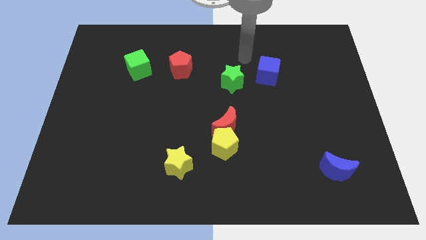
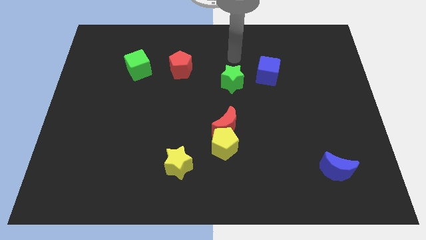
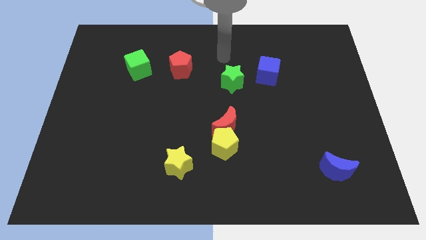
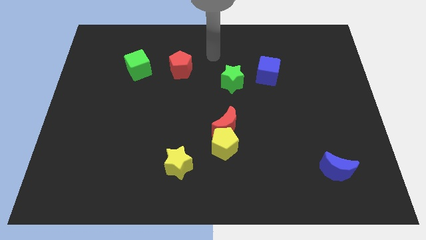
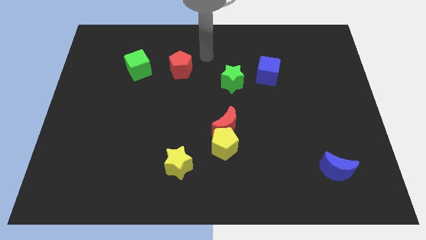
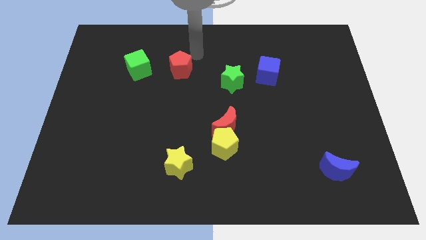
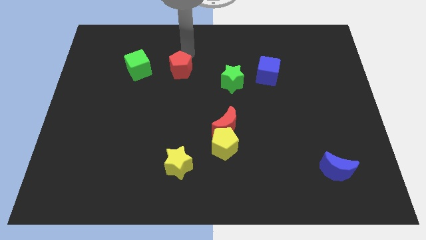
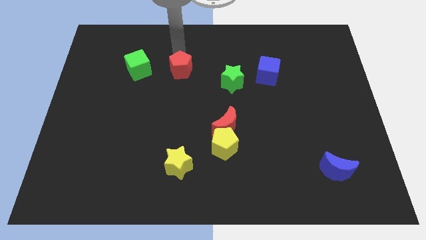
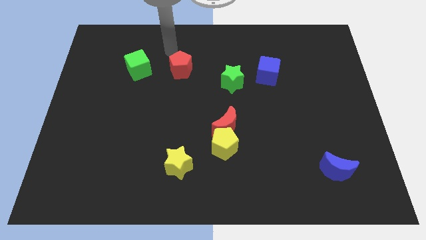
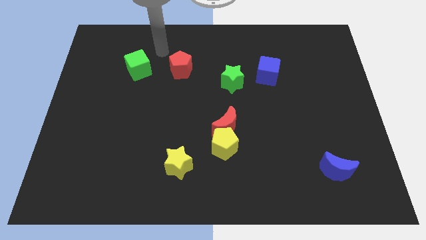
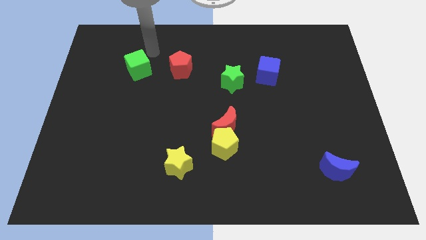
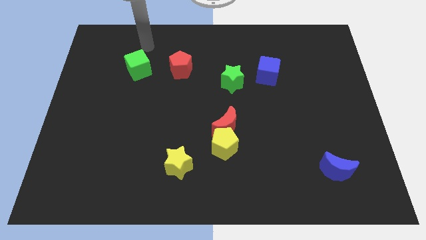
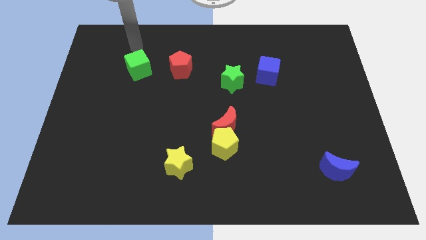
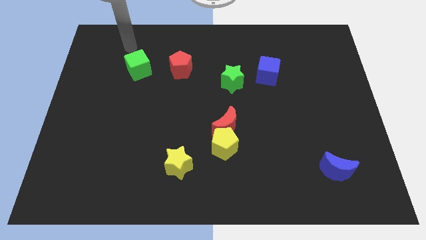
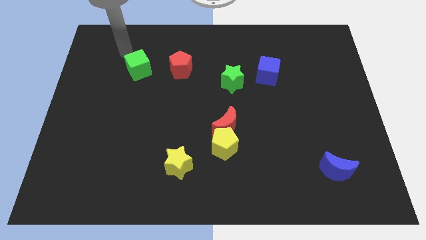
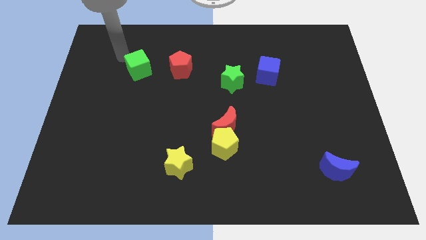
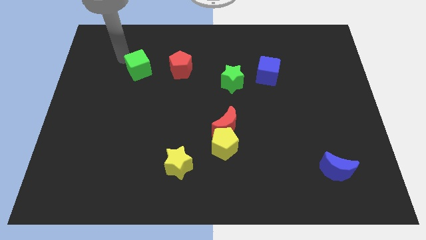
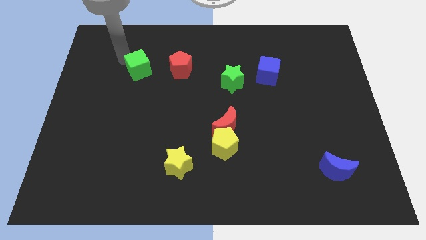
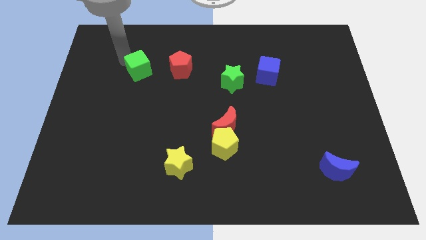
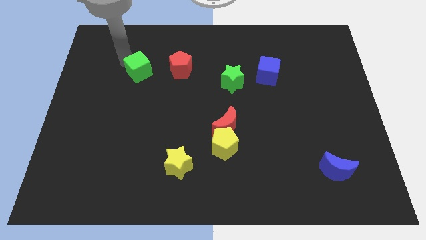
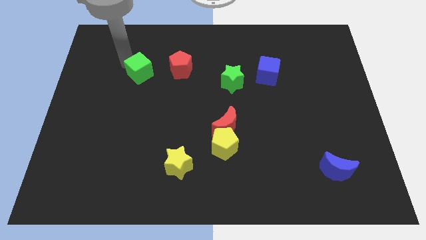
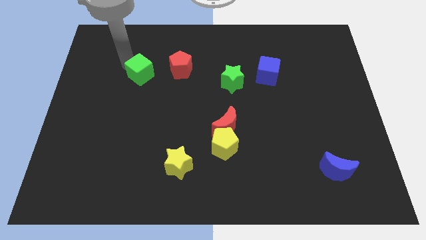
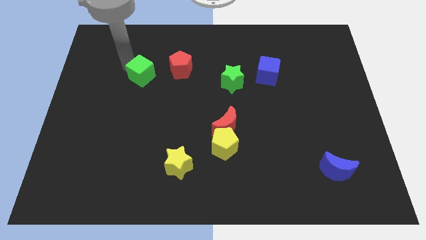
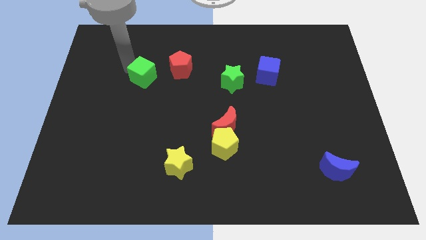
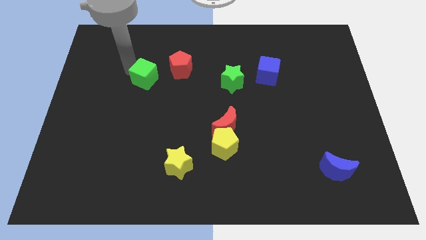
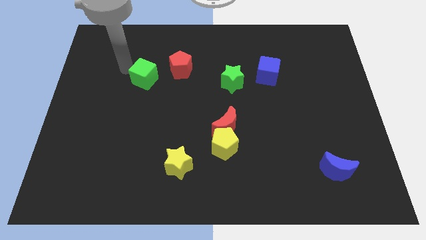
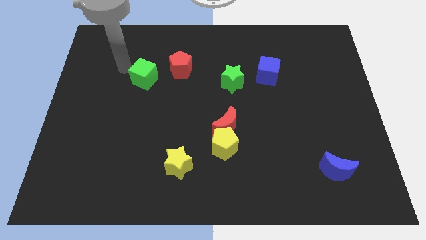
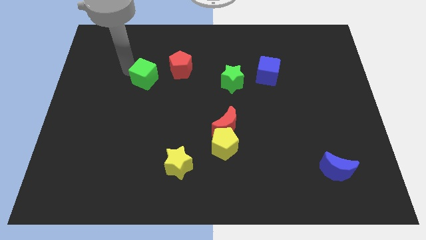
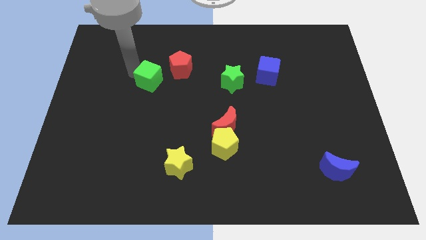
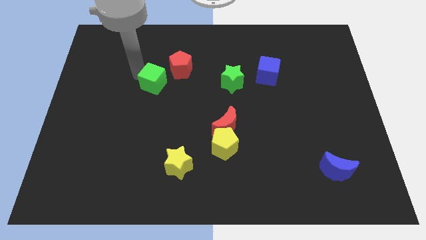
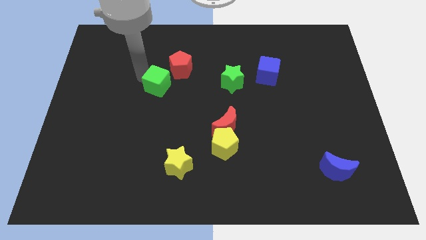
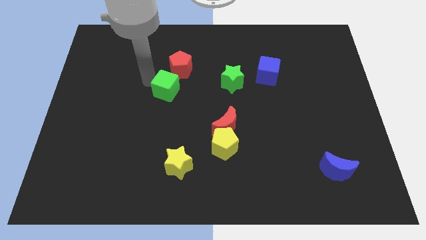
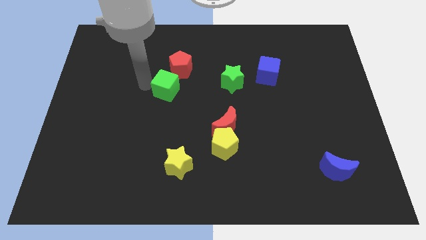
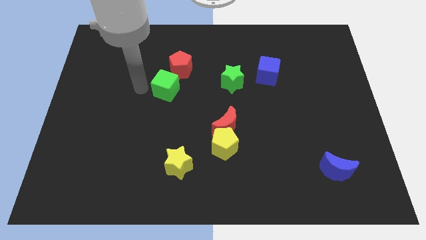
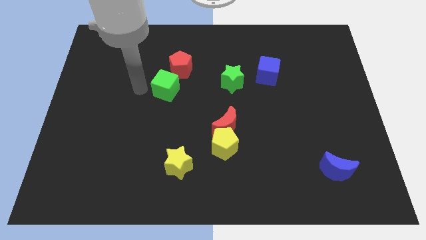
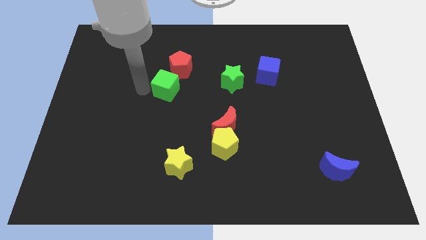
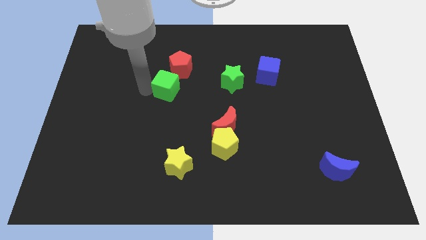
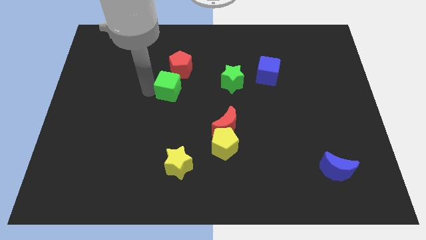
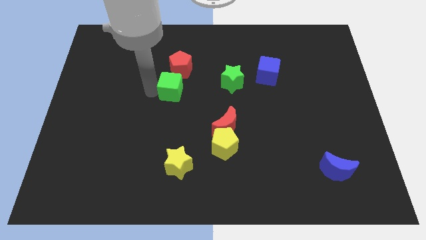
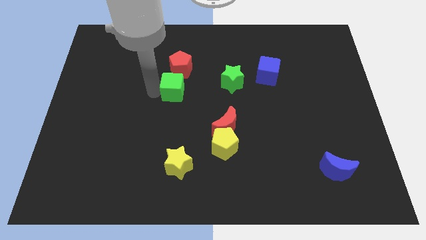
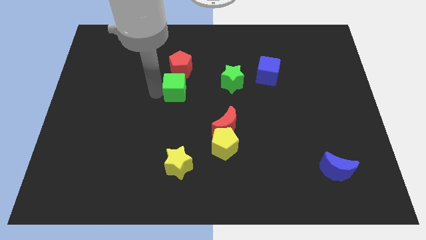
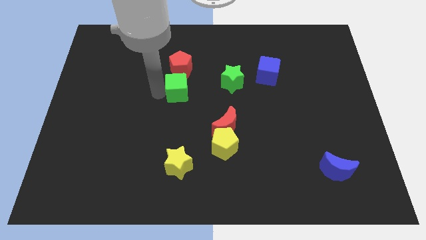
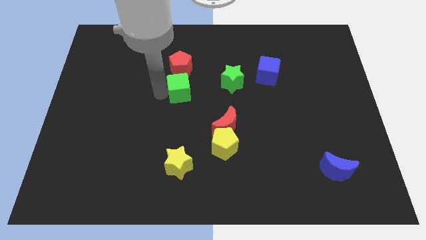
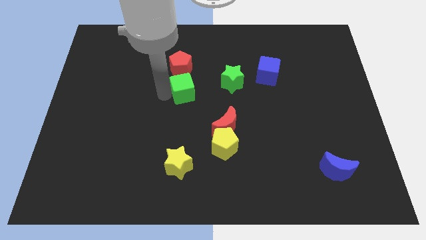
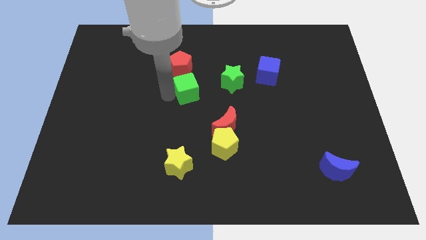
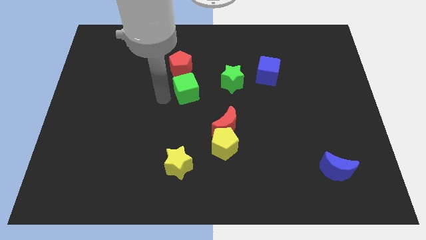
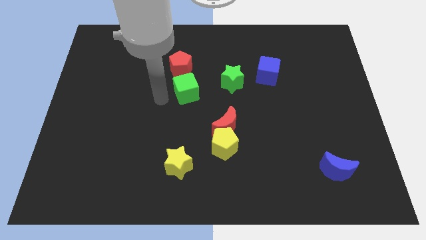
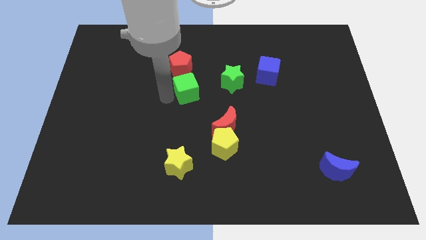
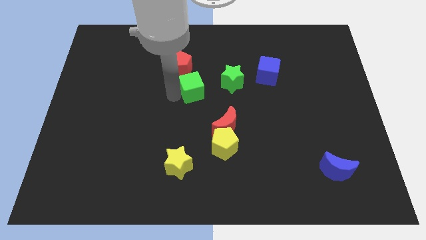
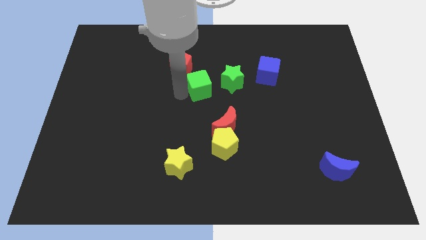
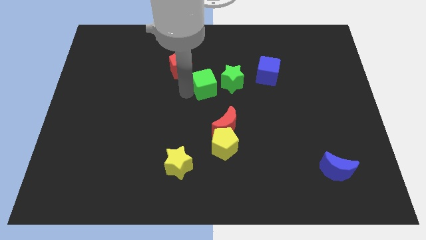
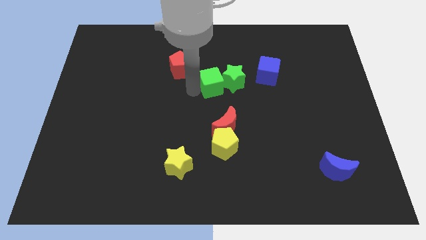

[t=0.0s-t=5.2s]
move the green cube to the green star

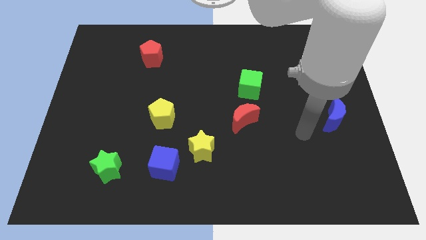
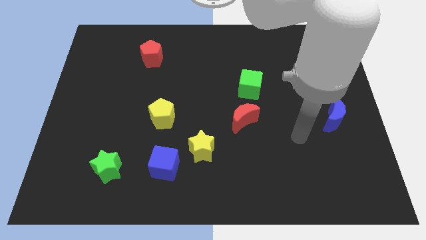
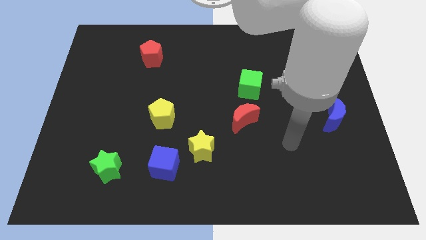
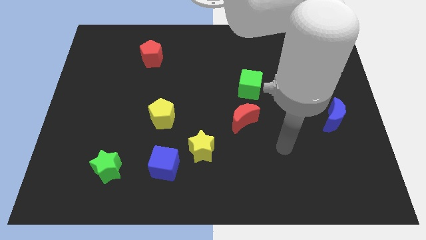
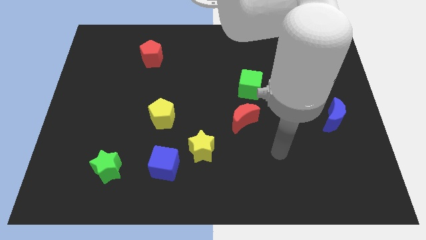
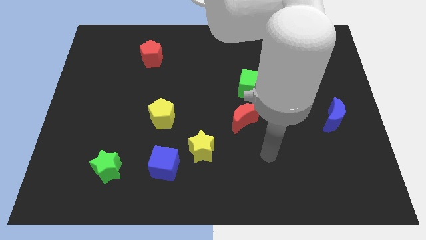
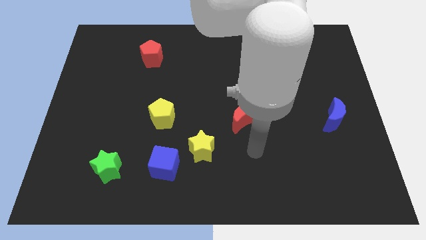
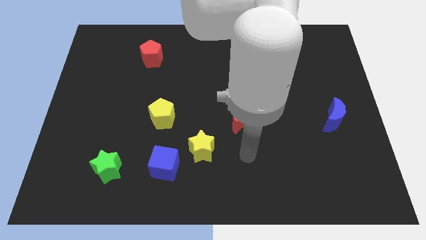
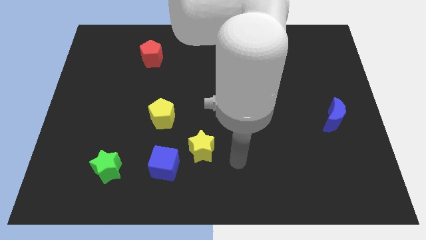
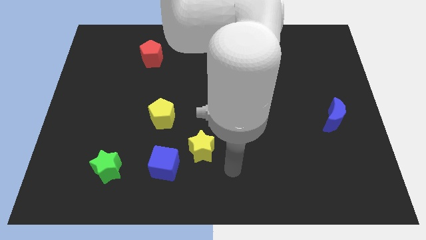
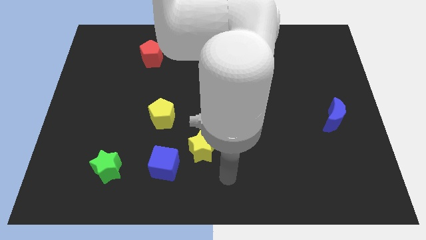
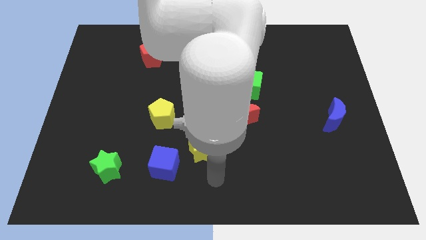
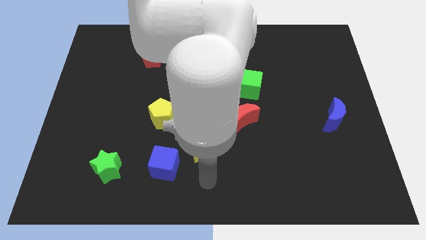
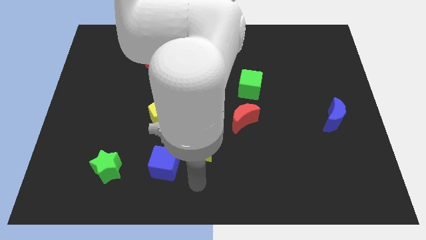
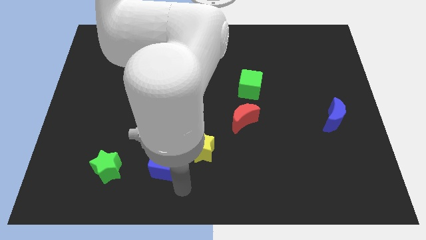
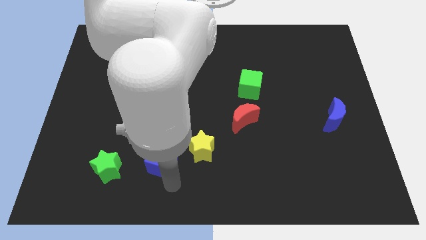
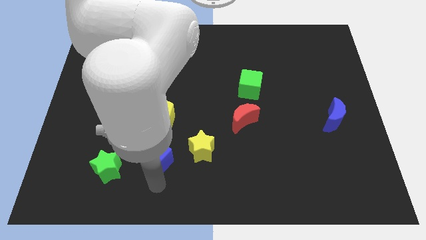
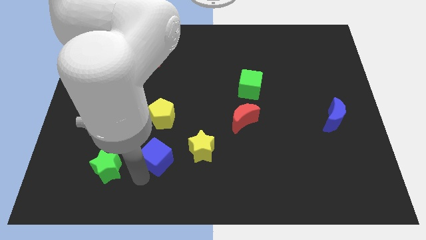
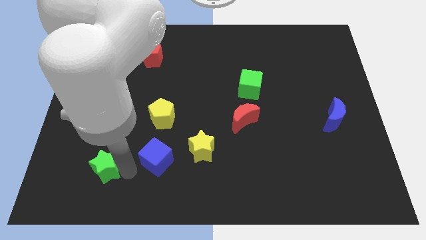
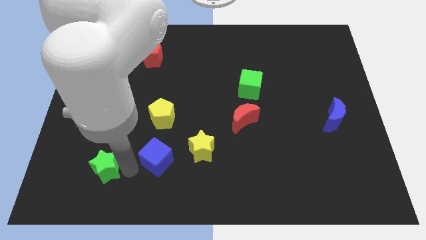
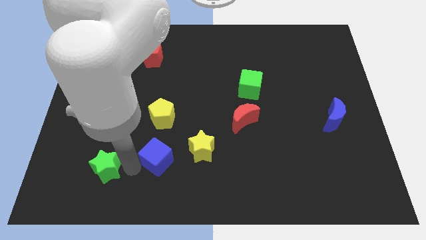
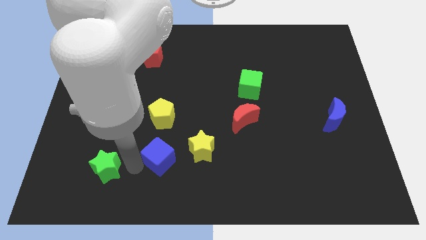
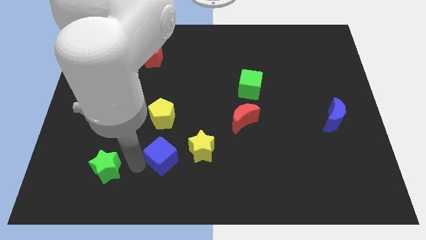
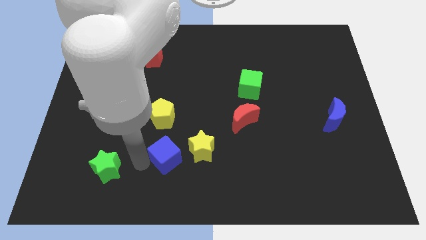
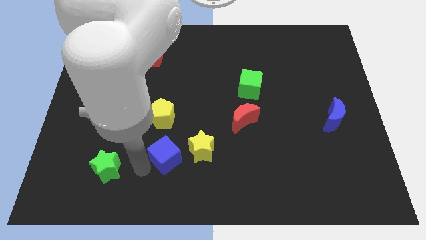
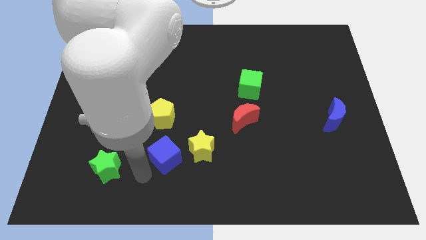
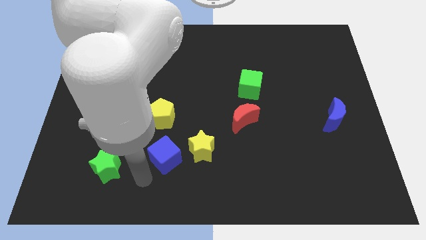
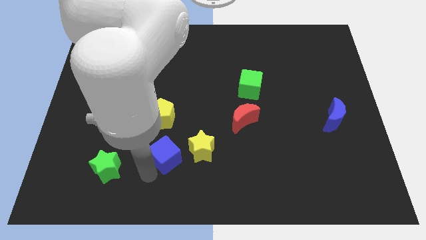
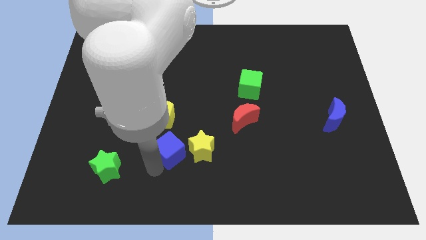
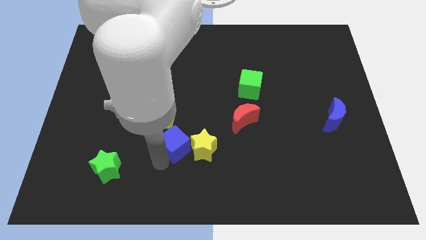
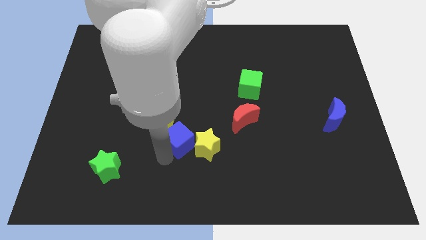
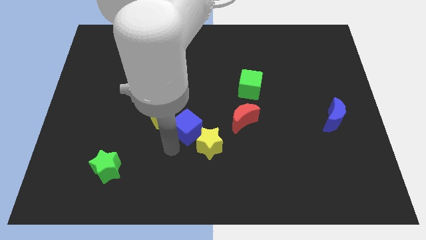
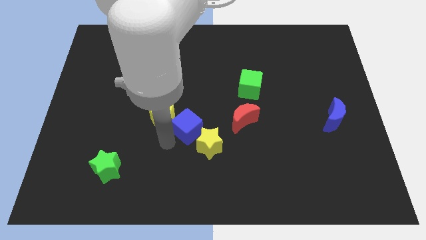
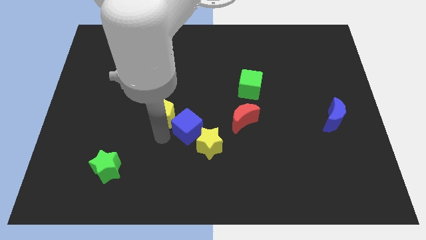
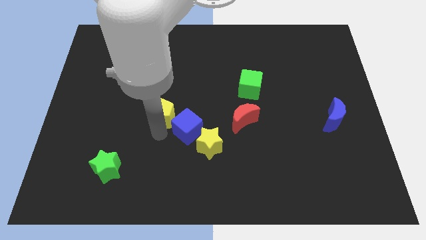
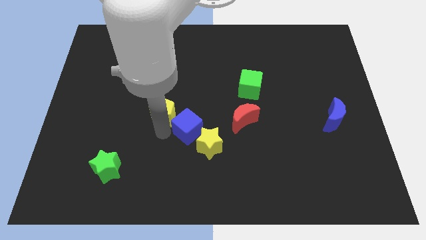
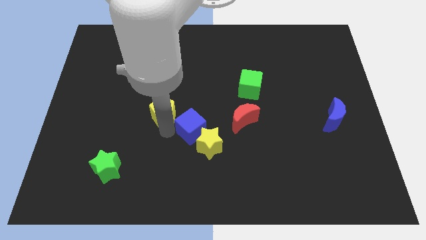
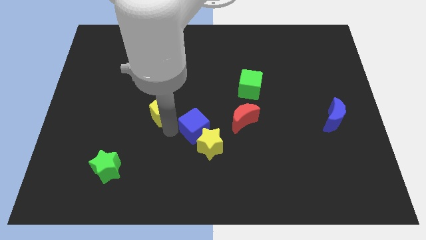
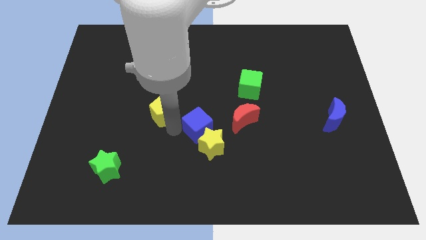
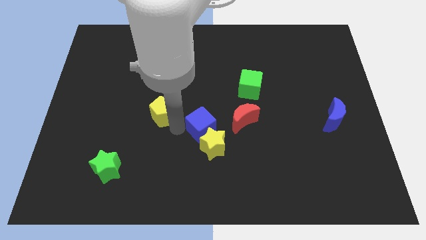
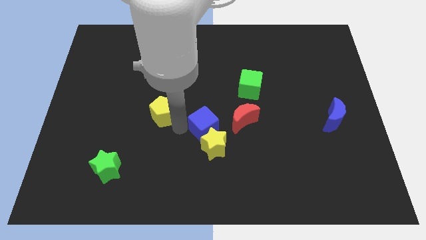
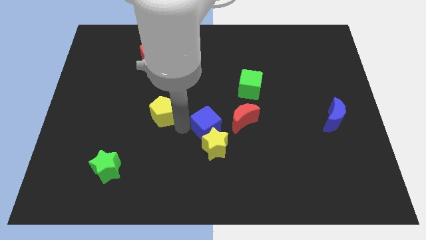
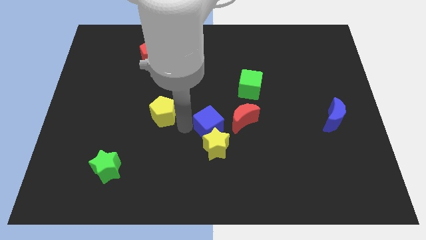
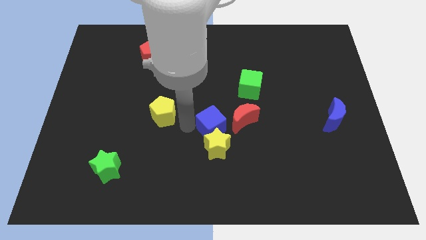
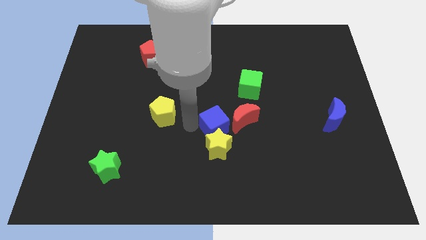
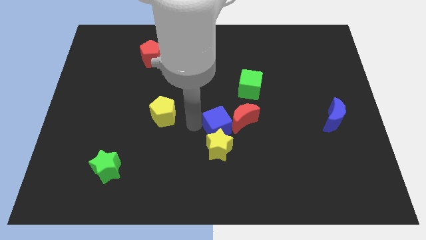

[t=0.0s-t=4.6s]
slide the blue cube to the red moon
